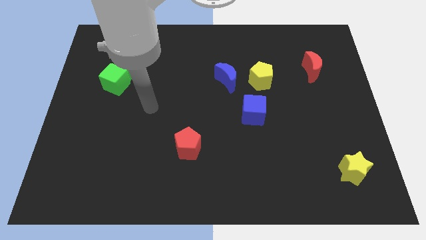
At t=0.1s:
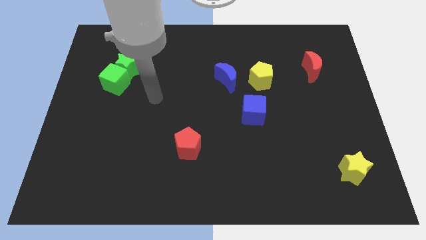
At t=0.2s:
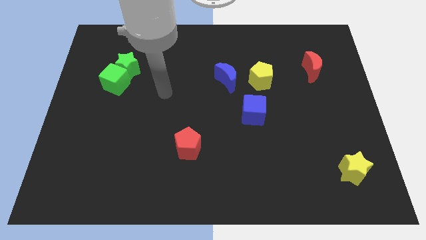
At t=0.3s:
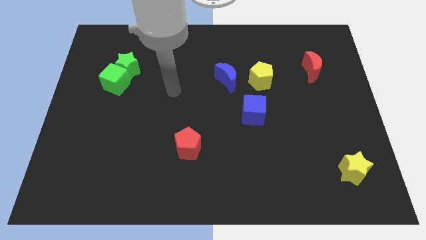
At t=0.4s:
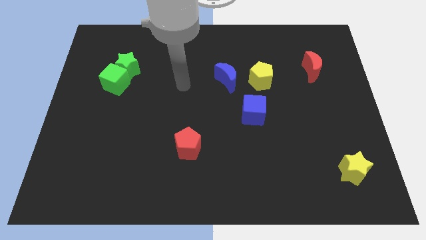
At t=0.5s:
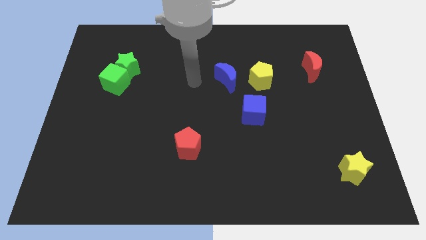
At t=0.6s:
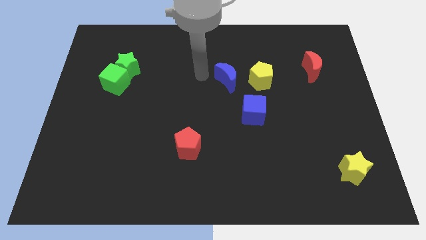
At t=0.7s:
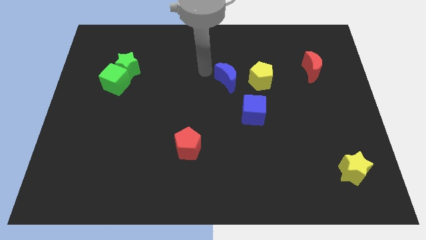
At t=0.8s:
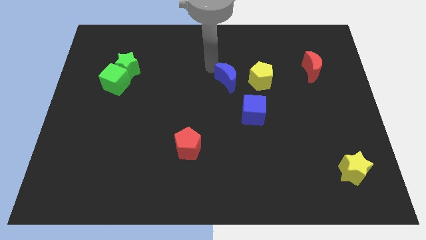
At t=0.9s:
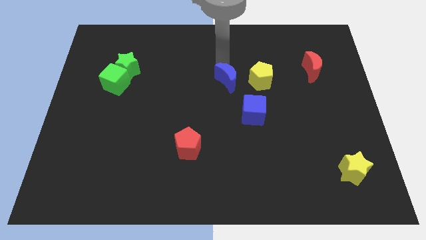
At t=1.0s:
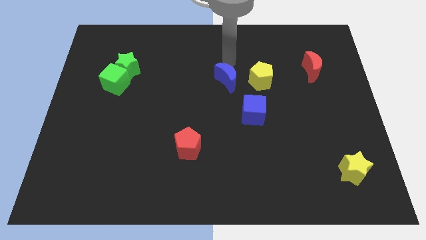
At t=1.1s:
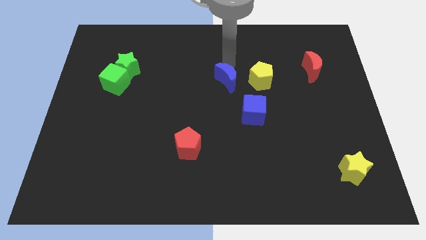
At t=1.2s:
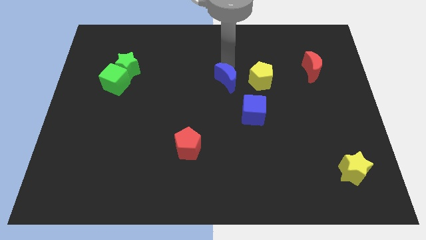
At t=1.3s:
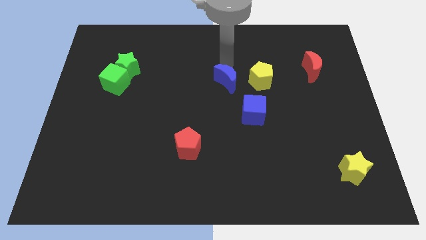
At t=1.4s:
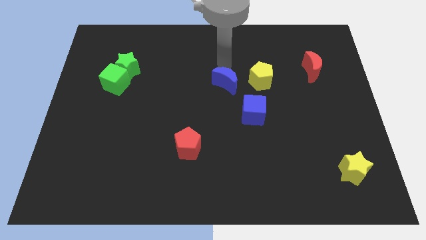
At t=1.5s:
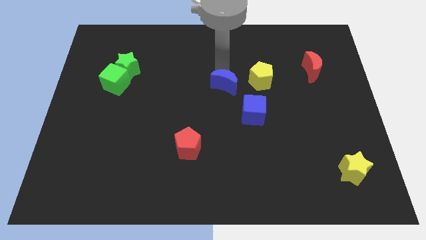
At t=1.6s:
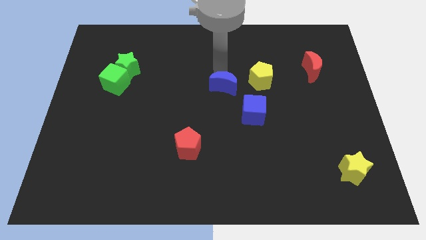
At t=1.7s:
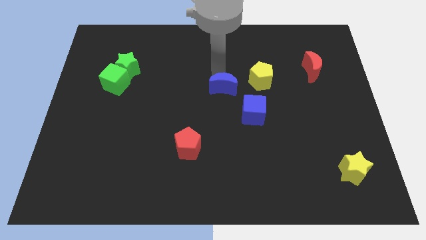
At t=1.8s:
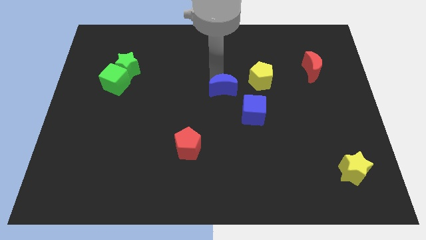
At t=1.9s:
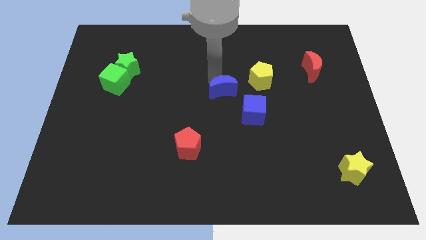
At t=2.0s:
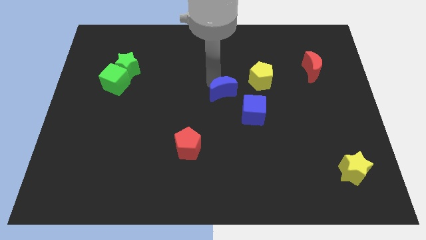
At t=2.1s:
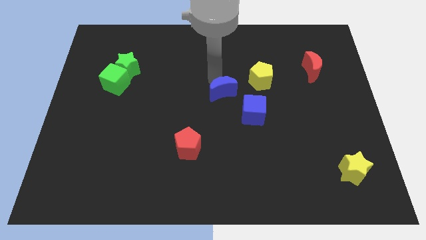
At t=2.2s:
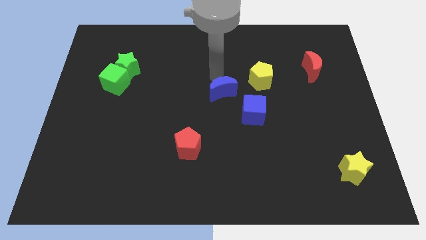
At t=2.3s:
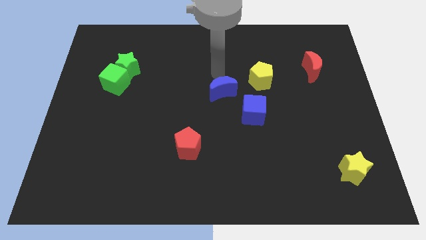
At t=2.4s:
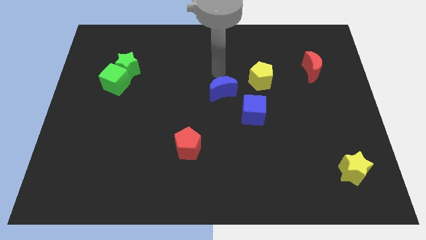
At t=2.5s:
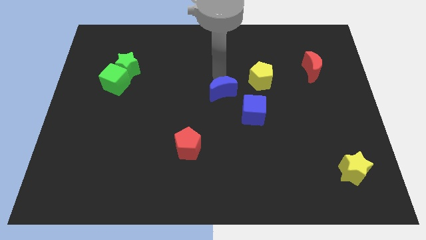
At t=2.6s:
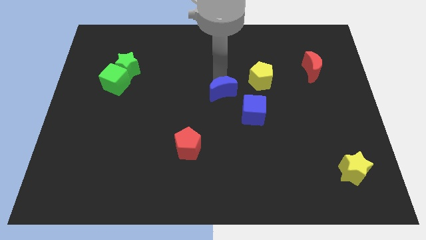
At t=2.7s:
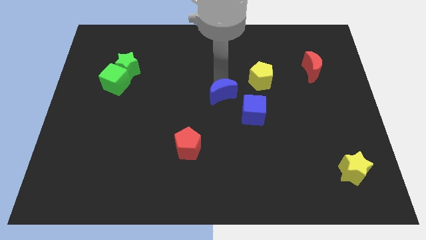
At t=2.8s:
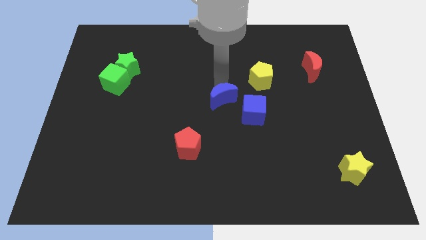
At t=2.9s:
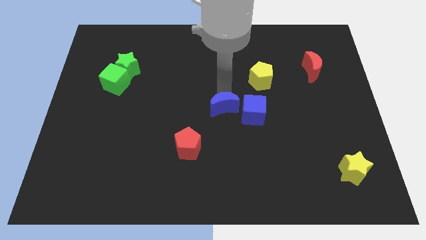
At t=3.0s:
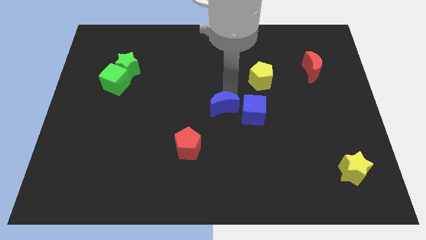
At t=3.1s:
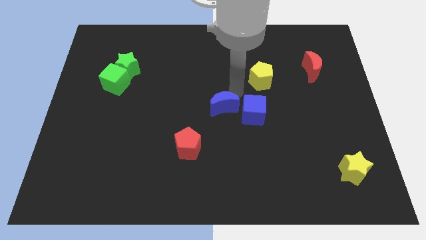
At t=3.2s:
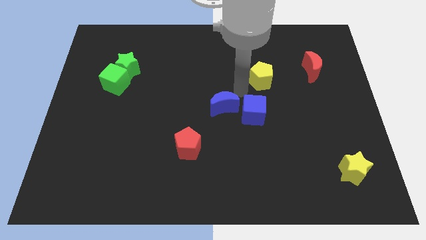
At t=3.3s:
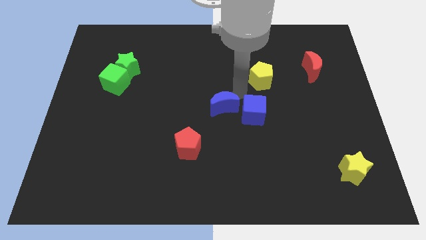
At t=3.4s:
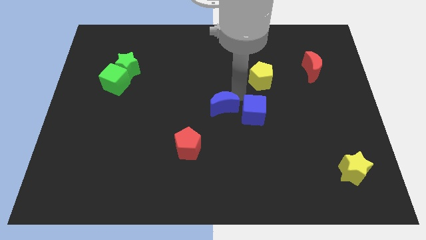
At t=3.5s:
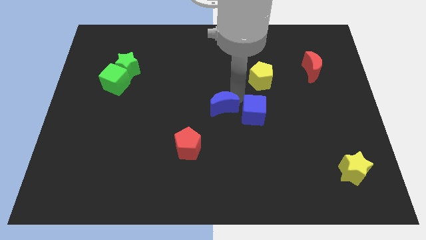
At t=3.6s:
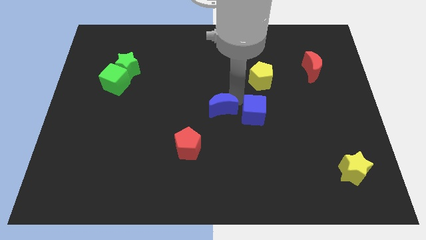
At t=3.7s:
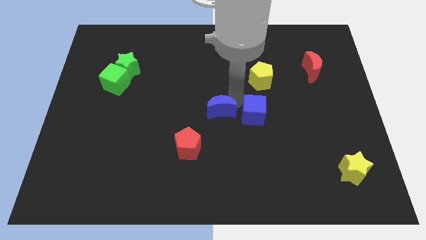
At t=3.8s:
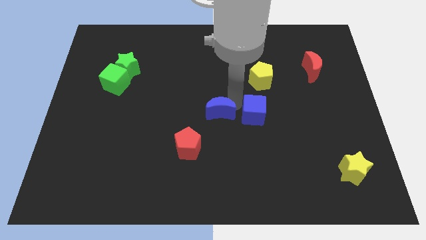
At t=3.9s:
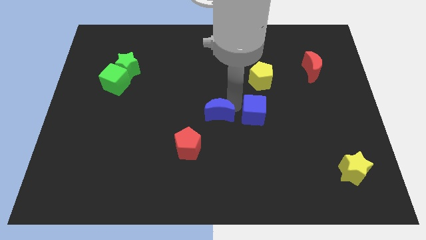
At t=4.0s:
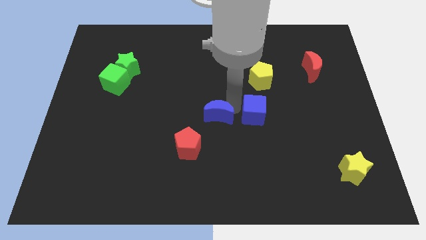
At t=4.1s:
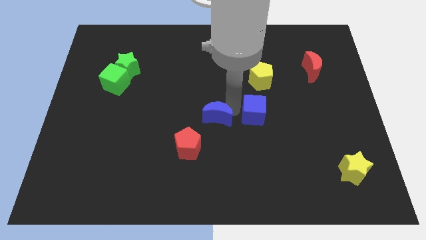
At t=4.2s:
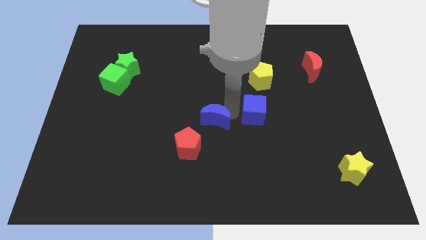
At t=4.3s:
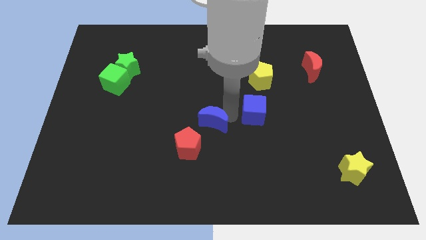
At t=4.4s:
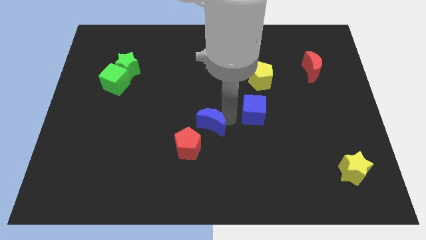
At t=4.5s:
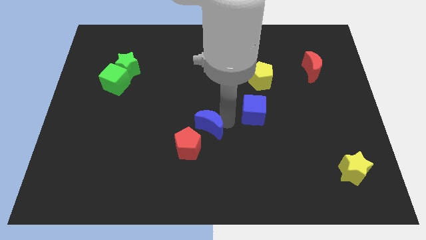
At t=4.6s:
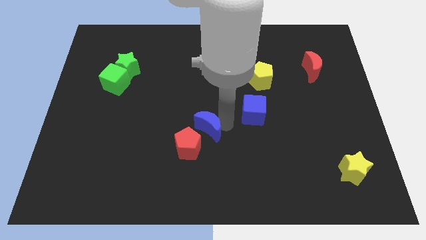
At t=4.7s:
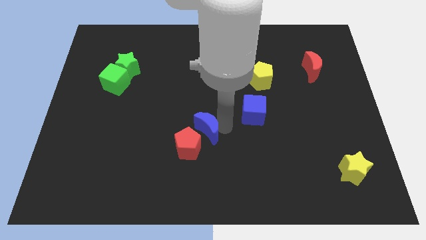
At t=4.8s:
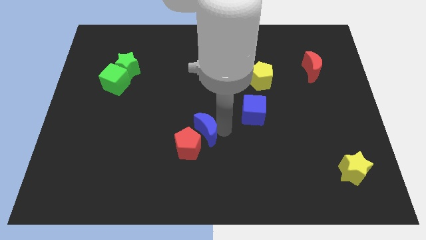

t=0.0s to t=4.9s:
slide the blue moon next to the red pentagon

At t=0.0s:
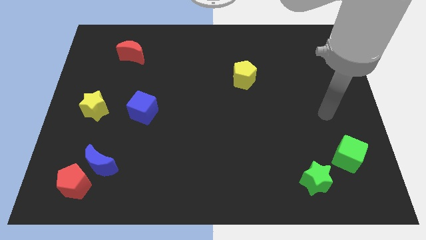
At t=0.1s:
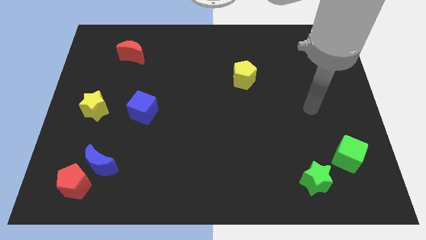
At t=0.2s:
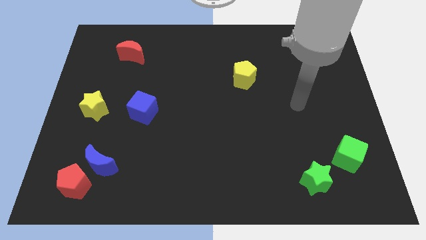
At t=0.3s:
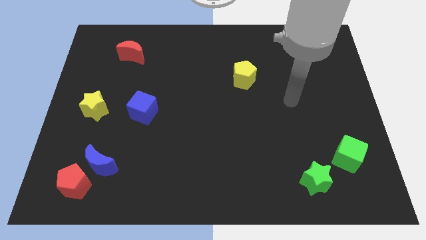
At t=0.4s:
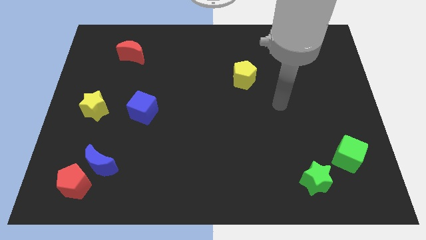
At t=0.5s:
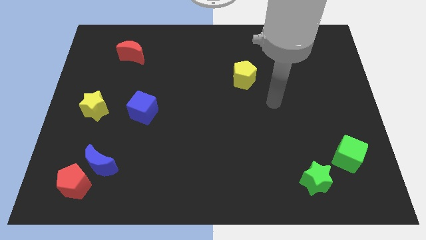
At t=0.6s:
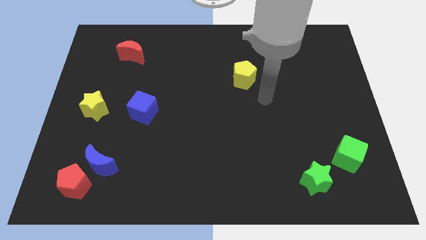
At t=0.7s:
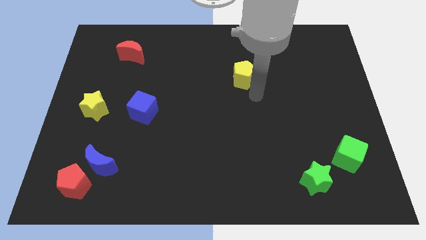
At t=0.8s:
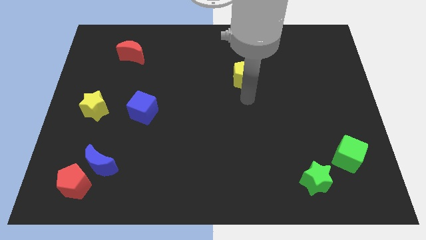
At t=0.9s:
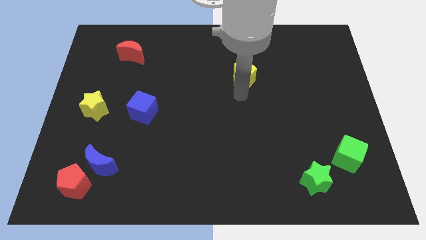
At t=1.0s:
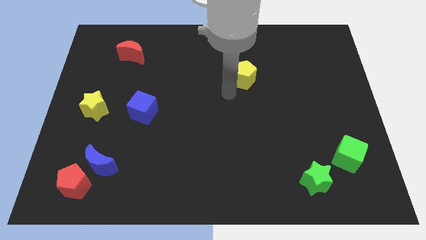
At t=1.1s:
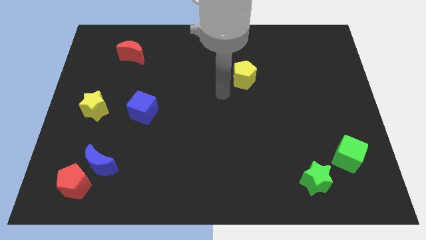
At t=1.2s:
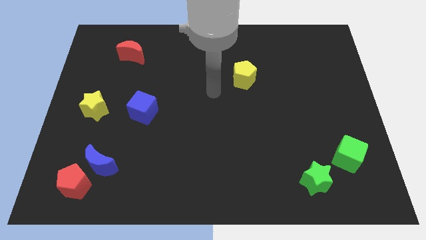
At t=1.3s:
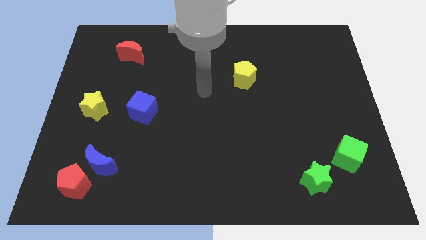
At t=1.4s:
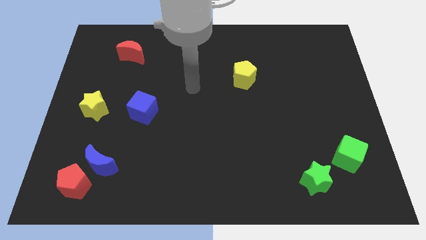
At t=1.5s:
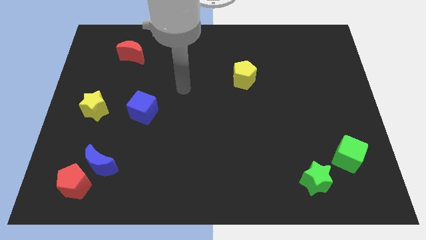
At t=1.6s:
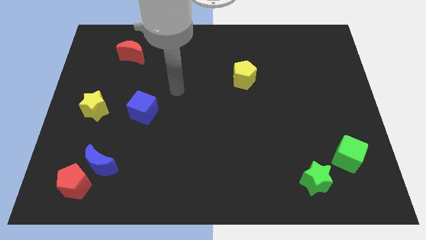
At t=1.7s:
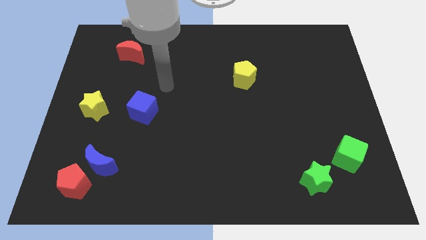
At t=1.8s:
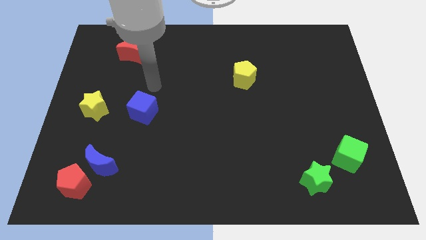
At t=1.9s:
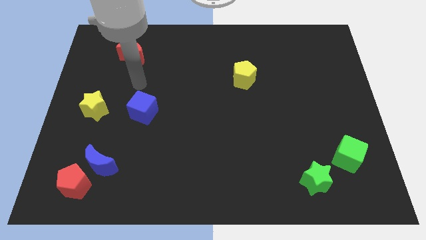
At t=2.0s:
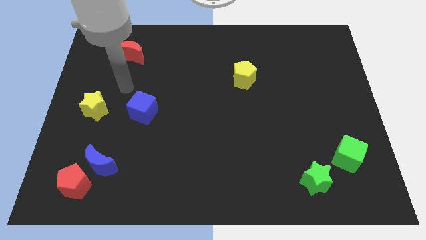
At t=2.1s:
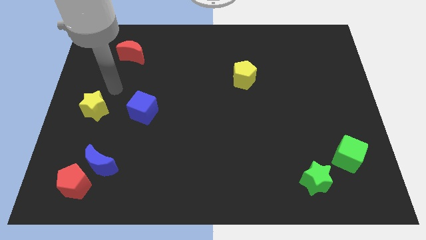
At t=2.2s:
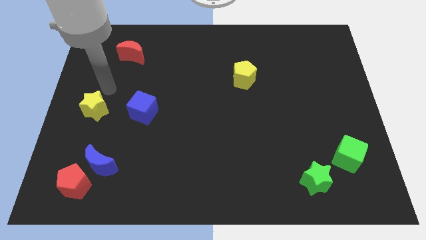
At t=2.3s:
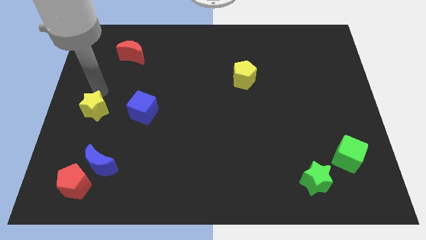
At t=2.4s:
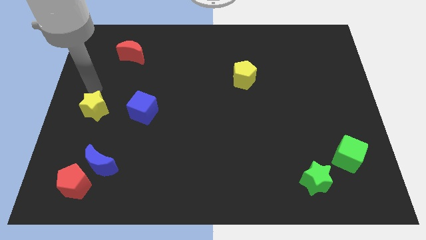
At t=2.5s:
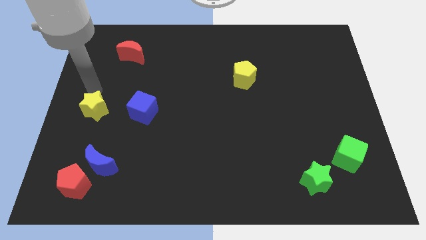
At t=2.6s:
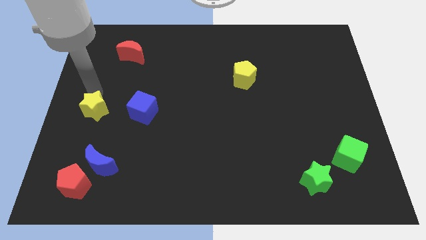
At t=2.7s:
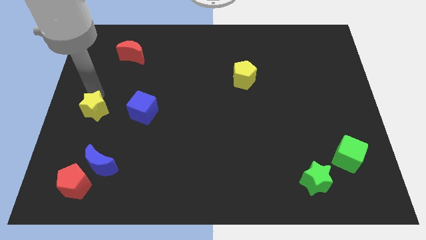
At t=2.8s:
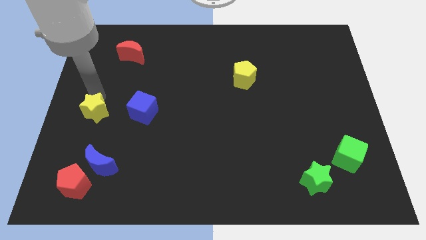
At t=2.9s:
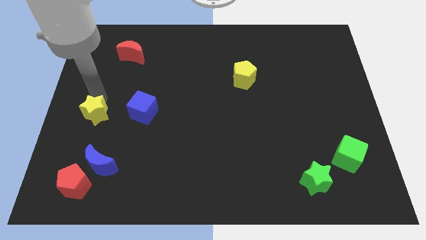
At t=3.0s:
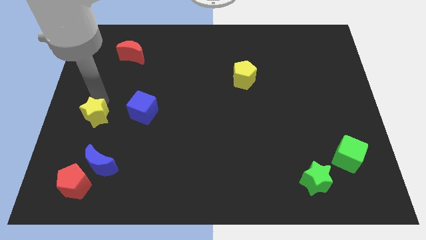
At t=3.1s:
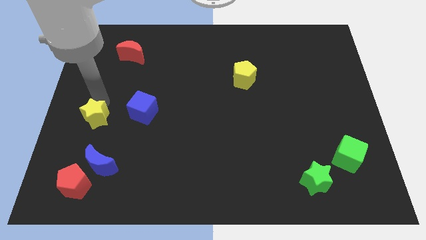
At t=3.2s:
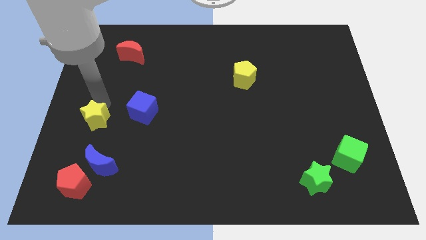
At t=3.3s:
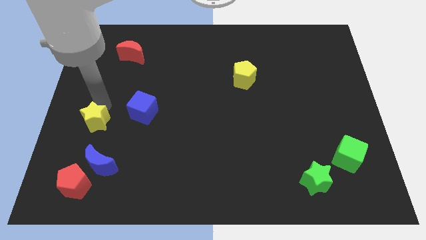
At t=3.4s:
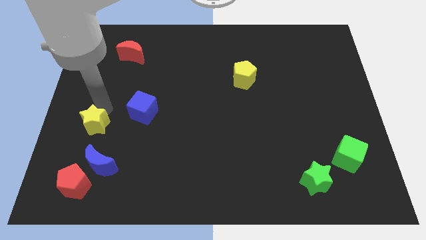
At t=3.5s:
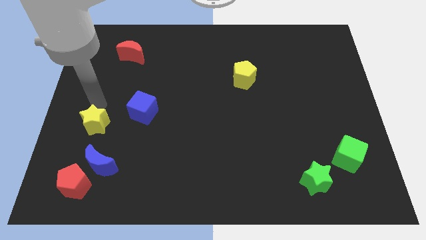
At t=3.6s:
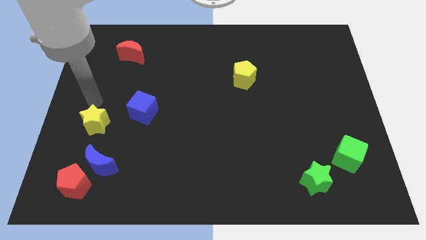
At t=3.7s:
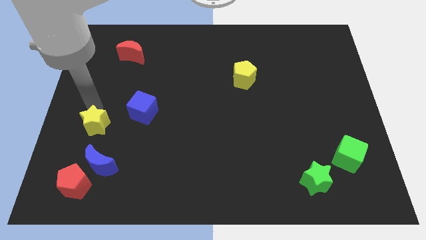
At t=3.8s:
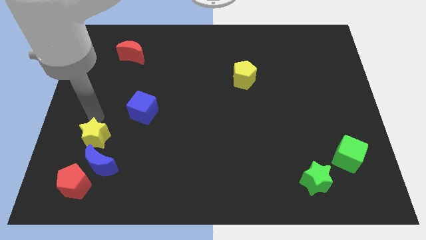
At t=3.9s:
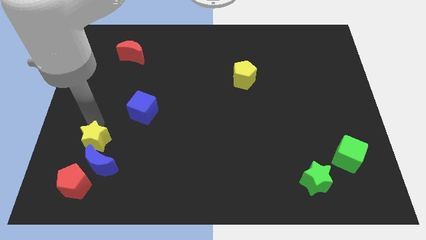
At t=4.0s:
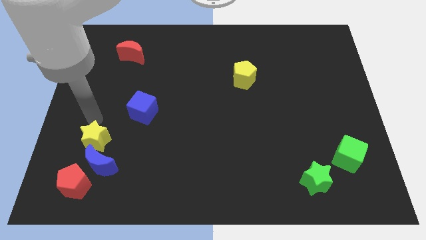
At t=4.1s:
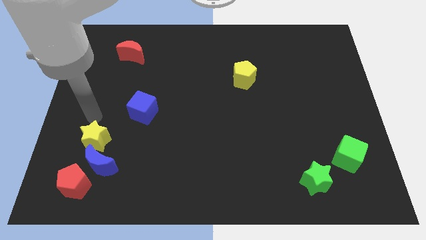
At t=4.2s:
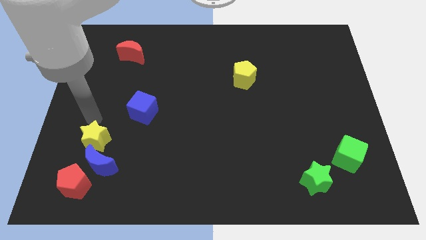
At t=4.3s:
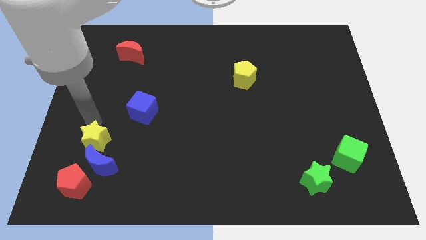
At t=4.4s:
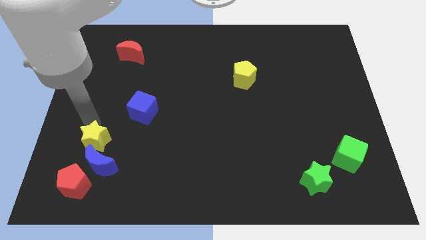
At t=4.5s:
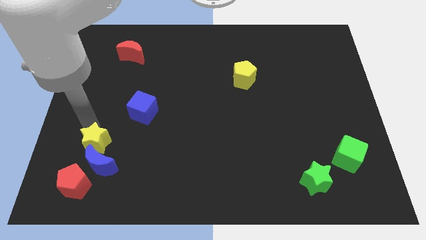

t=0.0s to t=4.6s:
push the yellow star close to the blue moon
